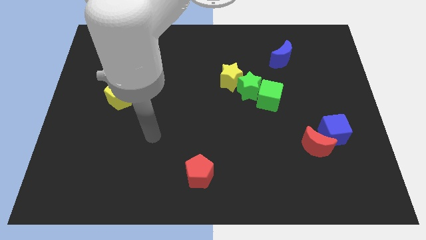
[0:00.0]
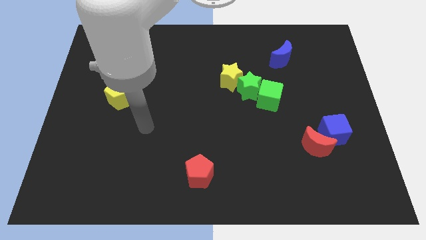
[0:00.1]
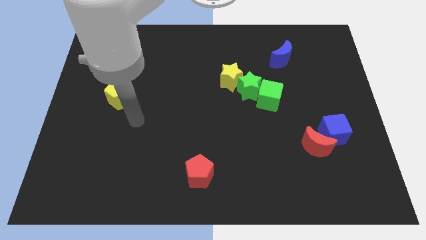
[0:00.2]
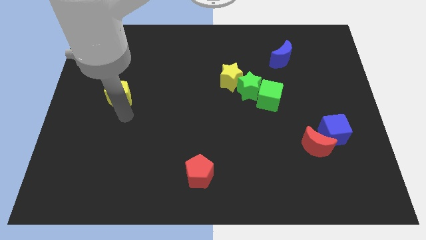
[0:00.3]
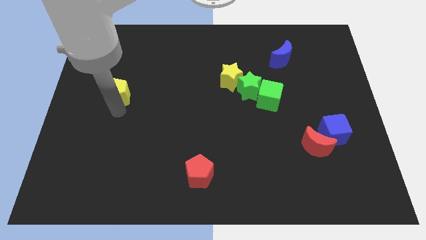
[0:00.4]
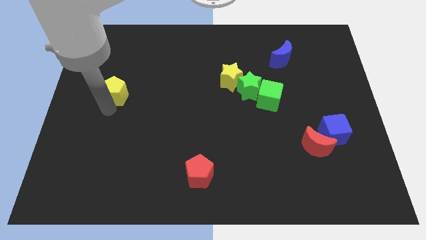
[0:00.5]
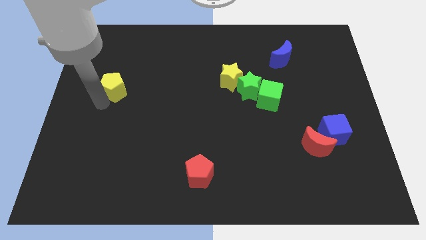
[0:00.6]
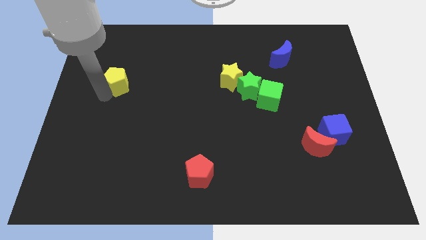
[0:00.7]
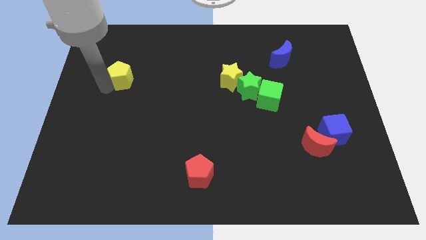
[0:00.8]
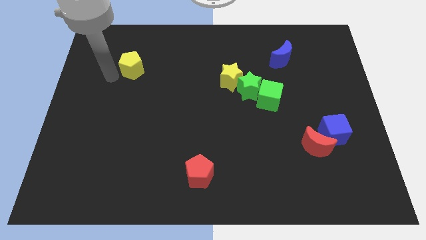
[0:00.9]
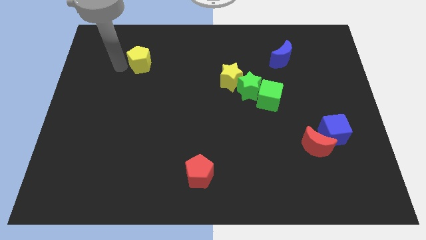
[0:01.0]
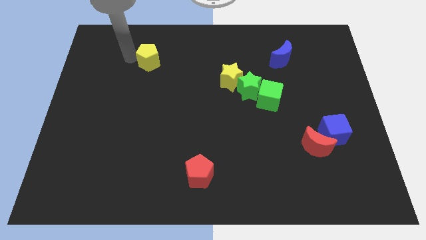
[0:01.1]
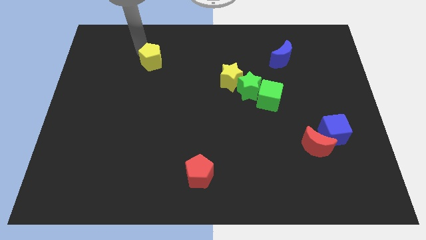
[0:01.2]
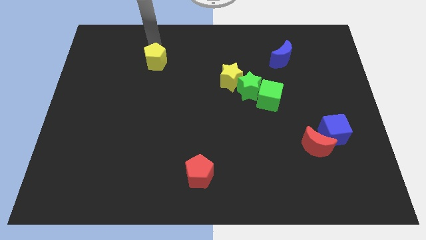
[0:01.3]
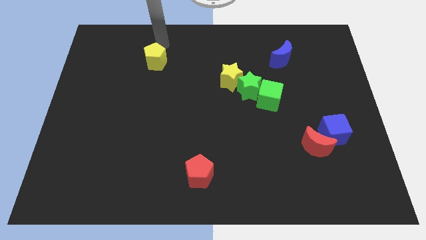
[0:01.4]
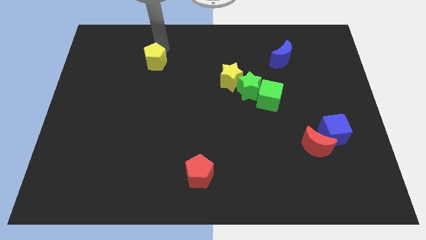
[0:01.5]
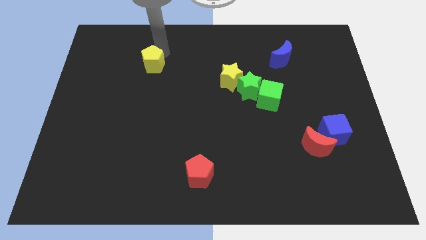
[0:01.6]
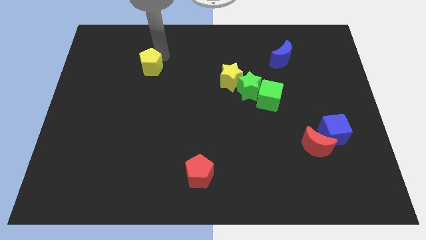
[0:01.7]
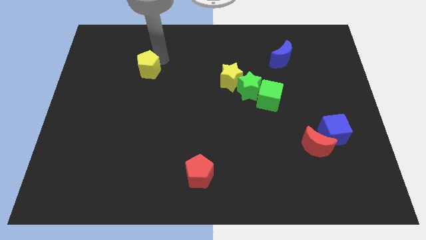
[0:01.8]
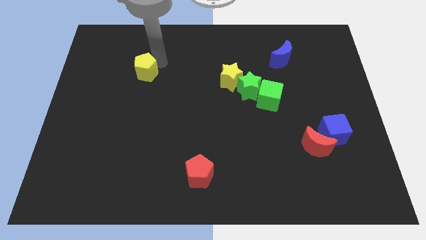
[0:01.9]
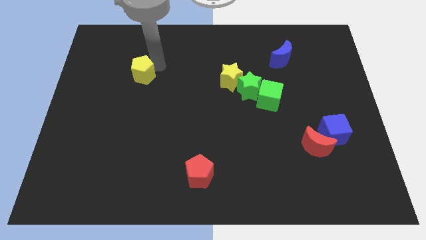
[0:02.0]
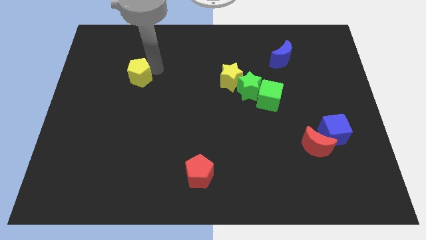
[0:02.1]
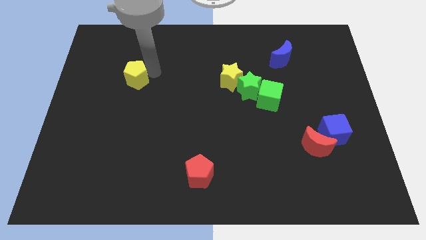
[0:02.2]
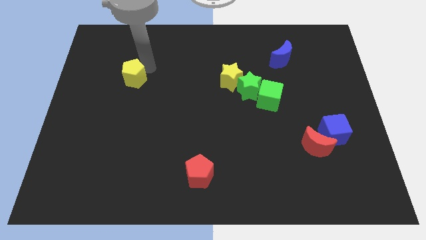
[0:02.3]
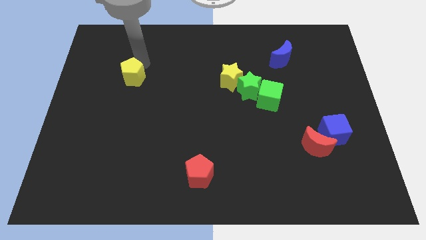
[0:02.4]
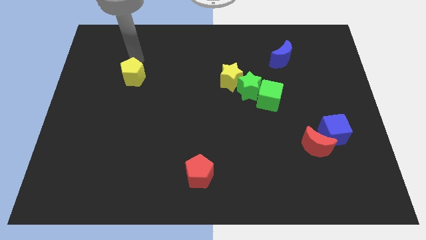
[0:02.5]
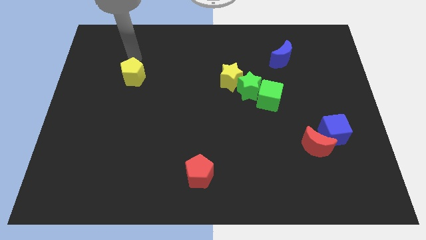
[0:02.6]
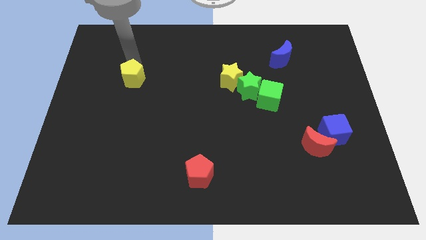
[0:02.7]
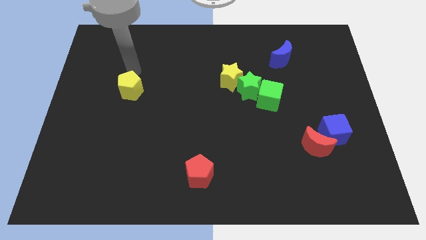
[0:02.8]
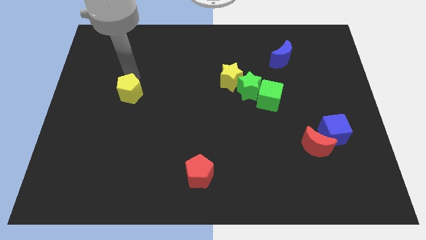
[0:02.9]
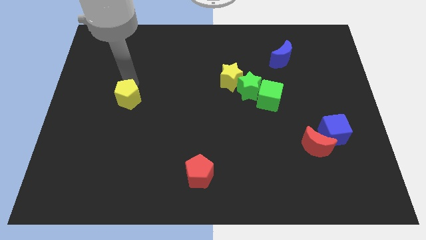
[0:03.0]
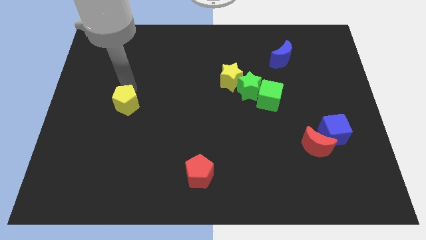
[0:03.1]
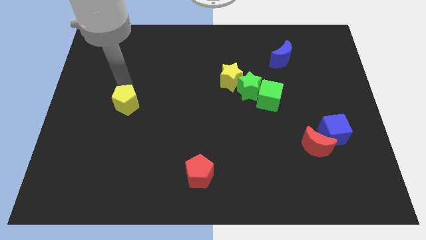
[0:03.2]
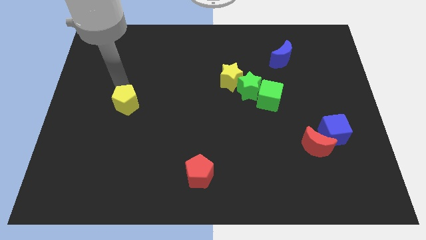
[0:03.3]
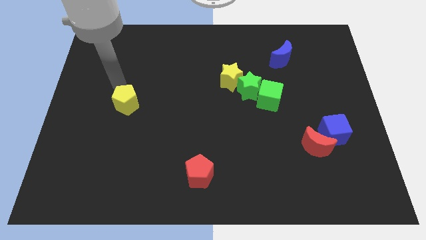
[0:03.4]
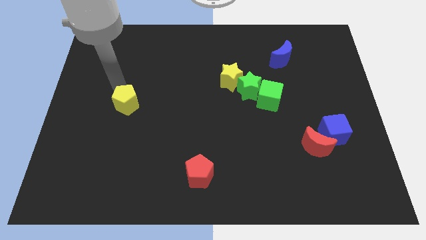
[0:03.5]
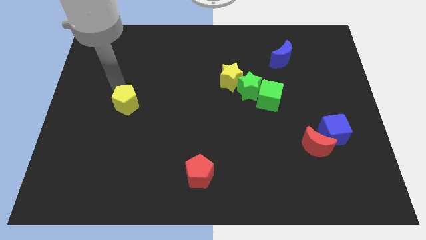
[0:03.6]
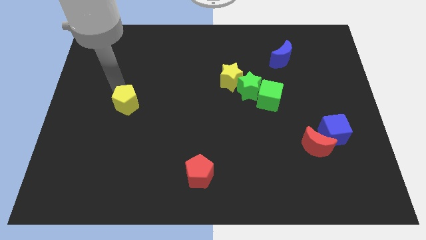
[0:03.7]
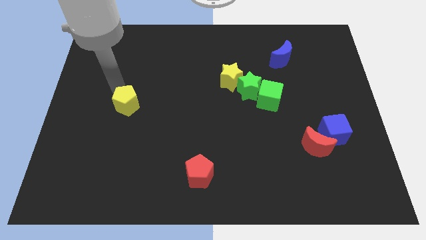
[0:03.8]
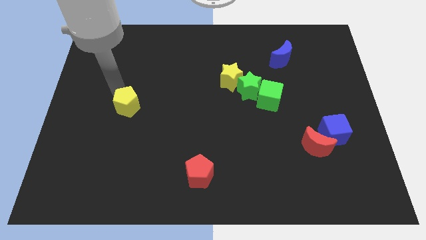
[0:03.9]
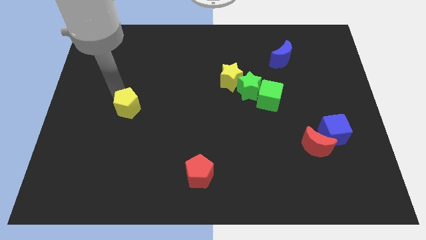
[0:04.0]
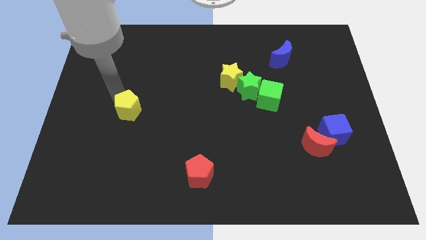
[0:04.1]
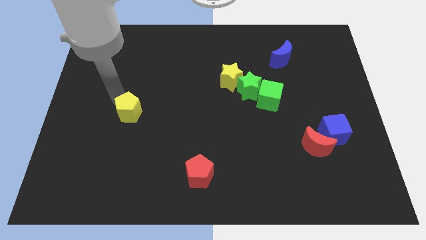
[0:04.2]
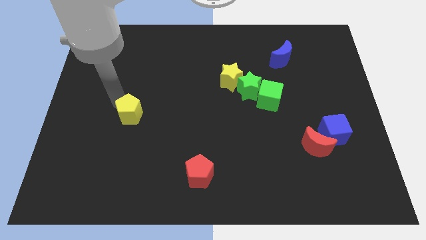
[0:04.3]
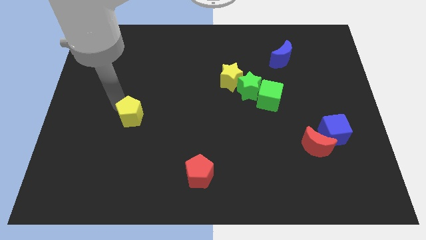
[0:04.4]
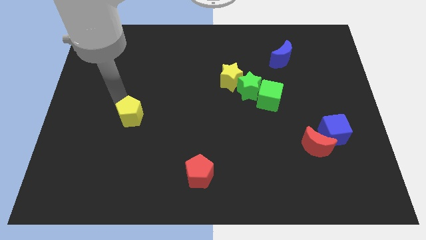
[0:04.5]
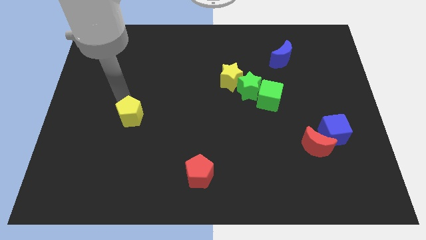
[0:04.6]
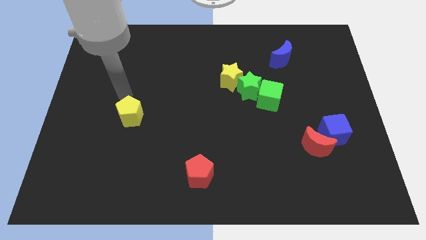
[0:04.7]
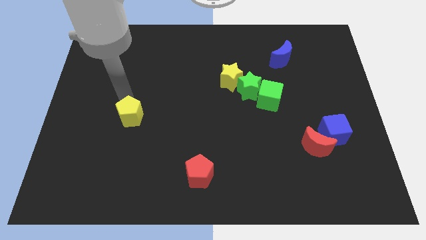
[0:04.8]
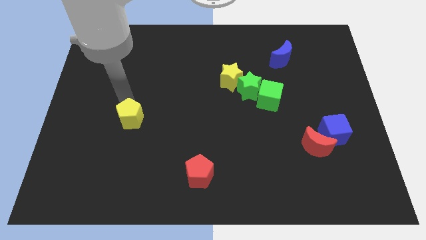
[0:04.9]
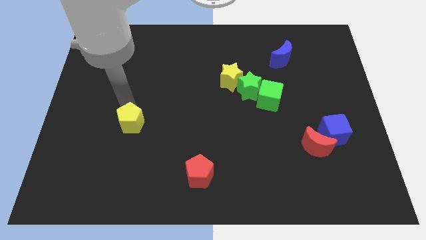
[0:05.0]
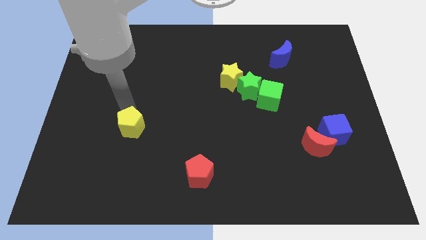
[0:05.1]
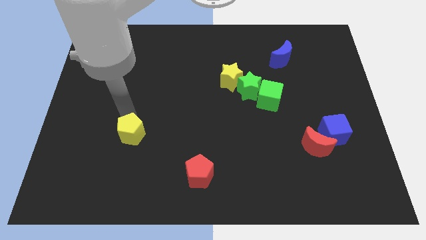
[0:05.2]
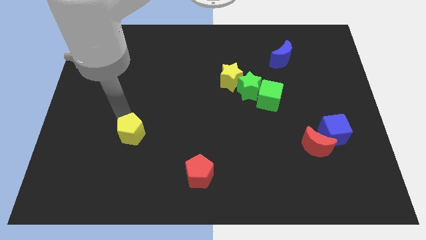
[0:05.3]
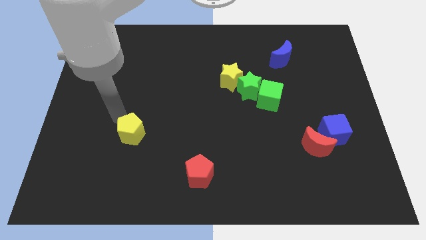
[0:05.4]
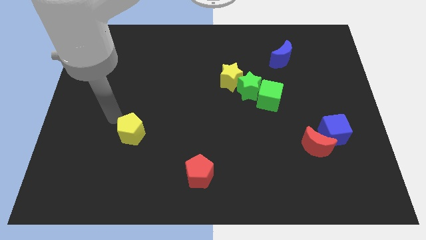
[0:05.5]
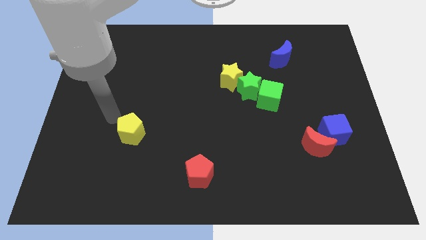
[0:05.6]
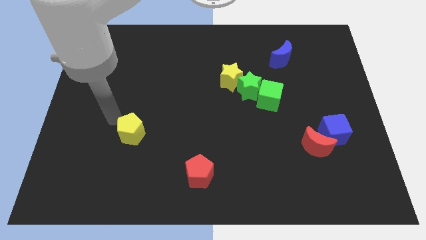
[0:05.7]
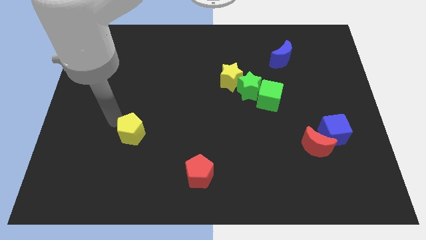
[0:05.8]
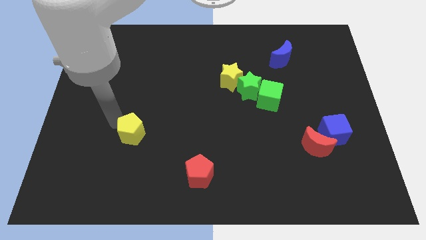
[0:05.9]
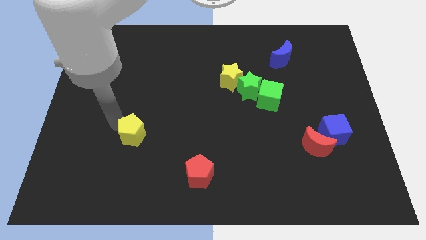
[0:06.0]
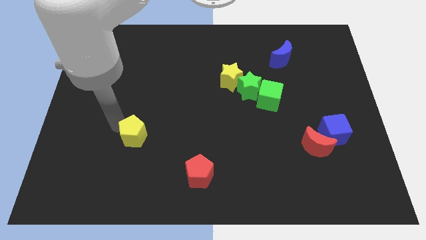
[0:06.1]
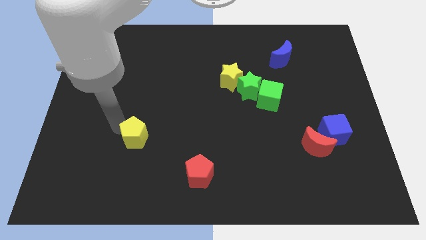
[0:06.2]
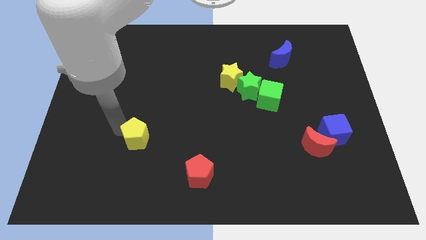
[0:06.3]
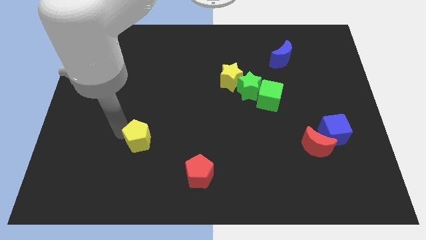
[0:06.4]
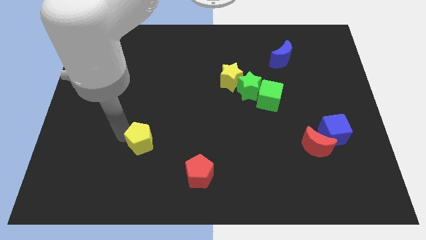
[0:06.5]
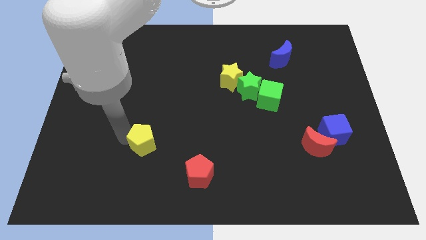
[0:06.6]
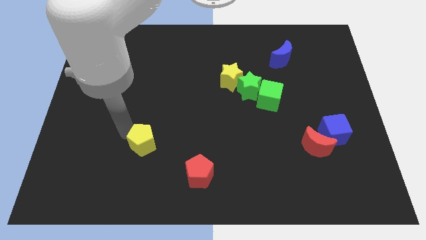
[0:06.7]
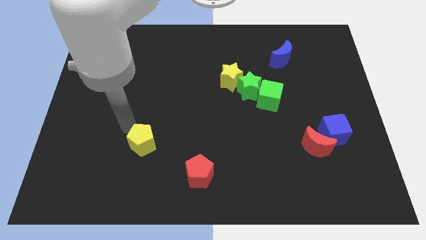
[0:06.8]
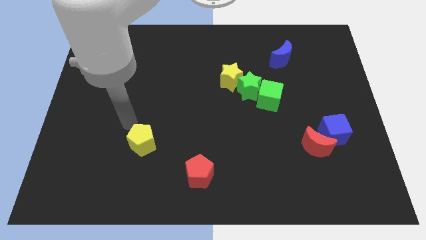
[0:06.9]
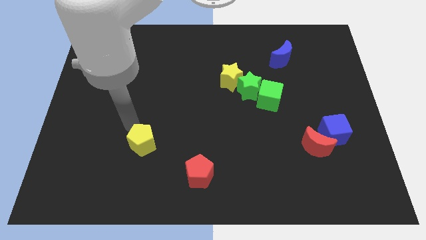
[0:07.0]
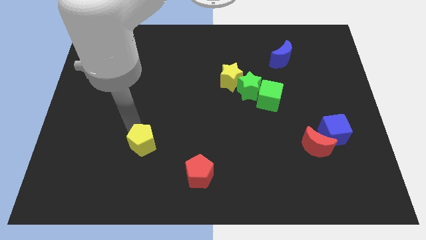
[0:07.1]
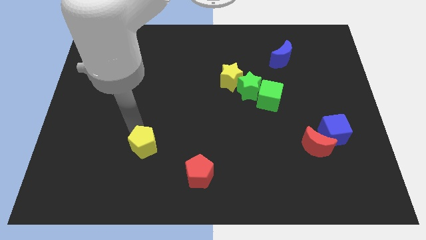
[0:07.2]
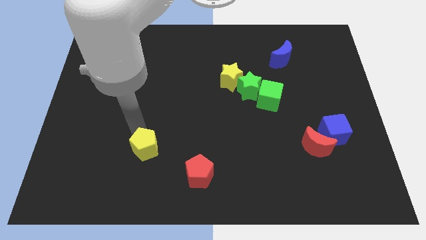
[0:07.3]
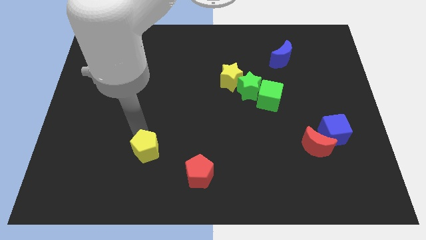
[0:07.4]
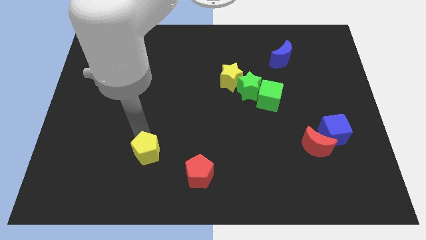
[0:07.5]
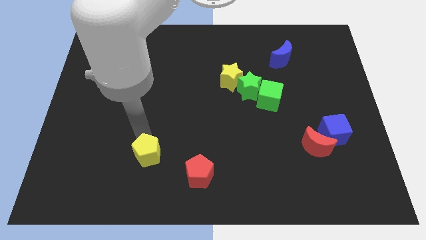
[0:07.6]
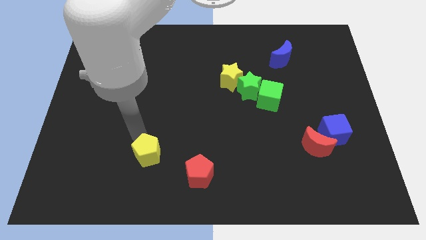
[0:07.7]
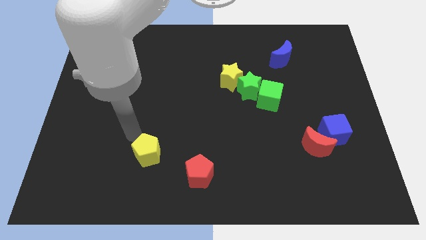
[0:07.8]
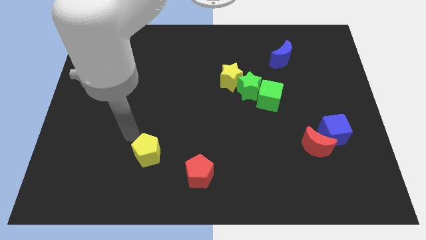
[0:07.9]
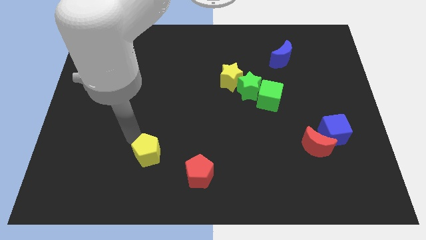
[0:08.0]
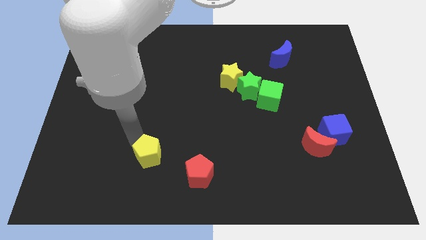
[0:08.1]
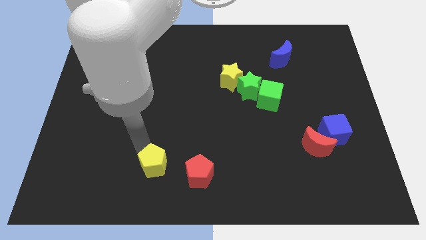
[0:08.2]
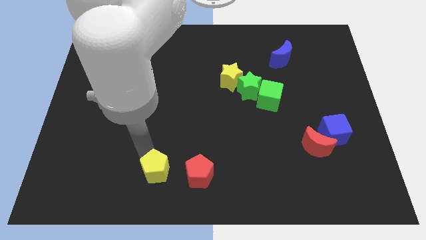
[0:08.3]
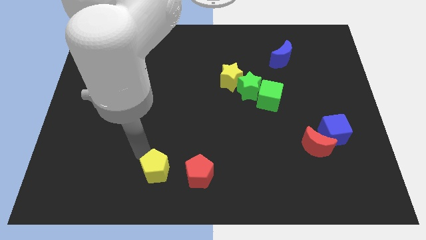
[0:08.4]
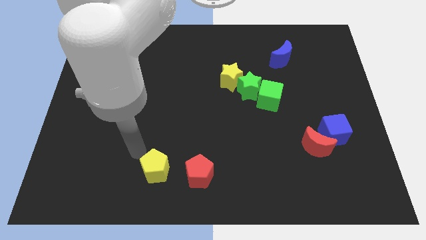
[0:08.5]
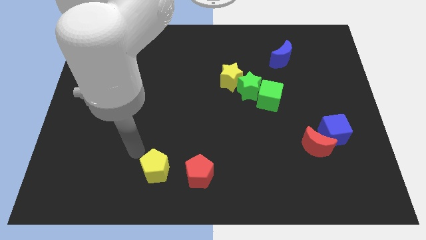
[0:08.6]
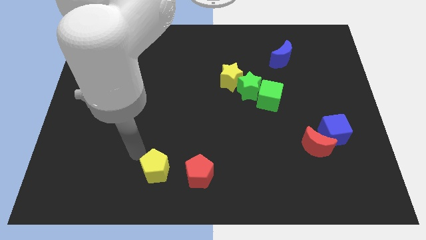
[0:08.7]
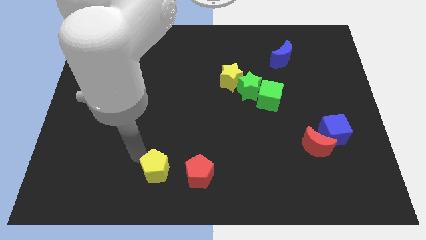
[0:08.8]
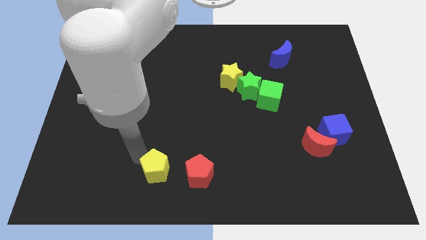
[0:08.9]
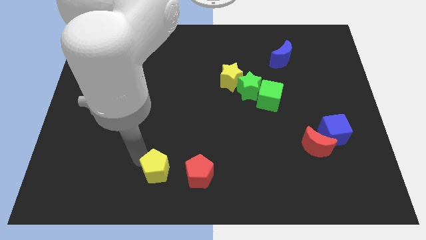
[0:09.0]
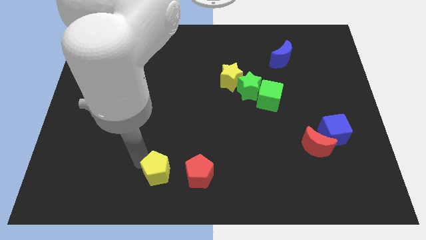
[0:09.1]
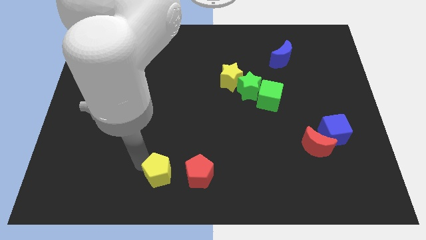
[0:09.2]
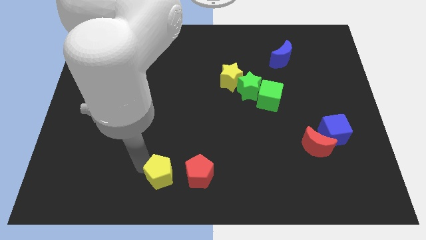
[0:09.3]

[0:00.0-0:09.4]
move the yellow pentagon to the bottom side
